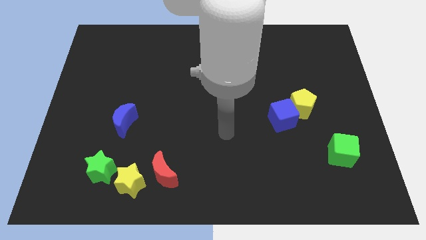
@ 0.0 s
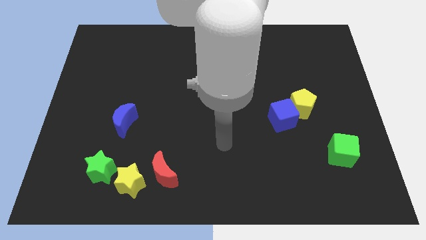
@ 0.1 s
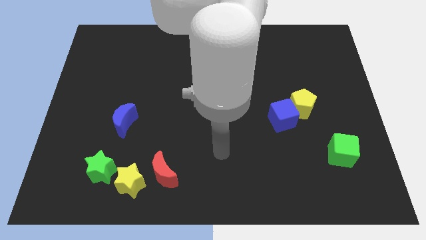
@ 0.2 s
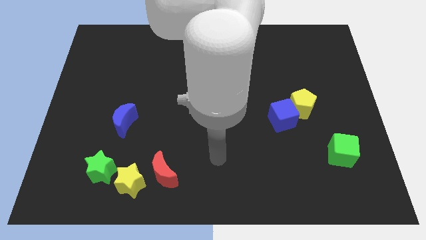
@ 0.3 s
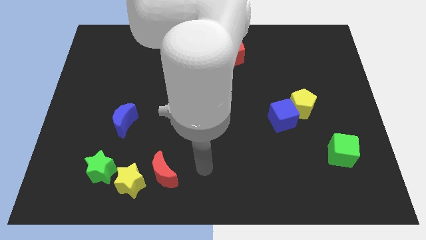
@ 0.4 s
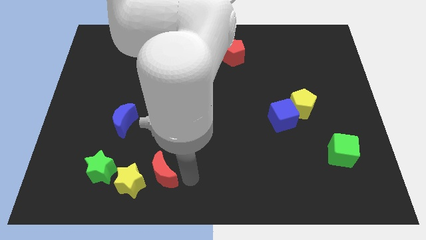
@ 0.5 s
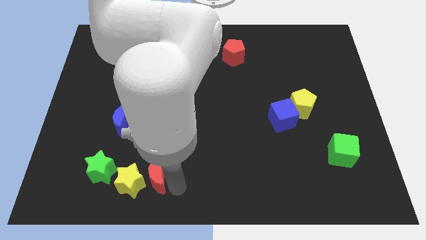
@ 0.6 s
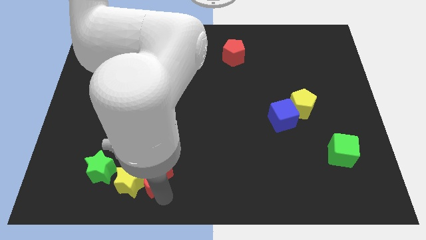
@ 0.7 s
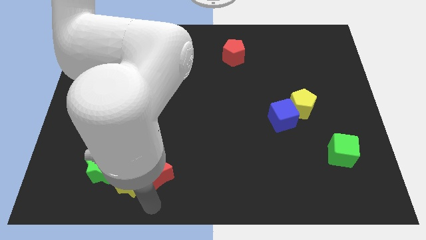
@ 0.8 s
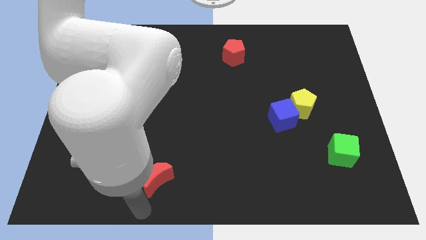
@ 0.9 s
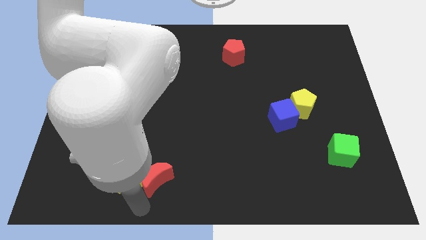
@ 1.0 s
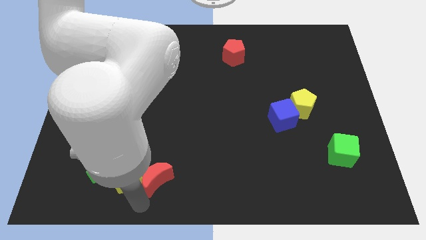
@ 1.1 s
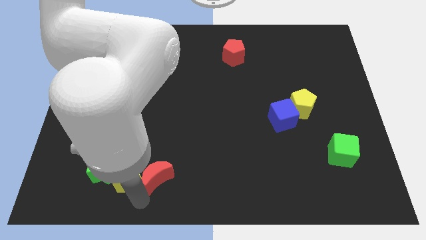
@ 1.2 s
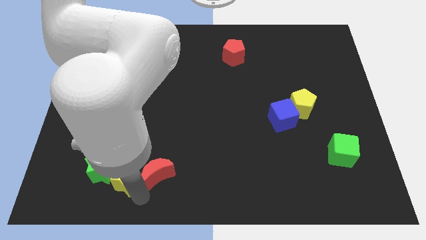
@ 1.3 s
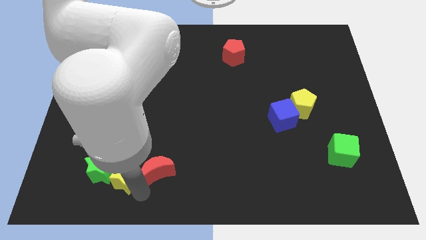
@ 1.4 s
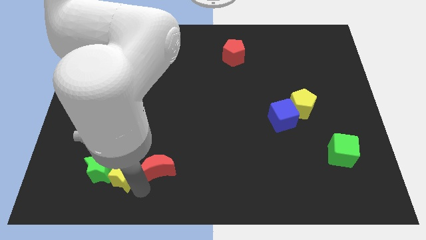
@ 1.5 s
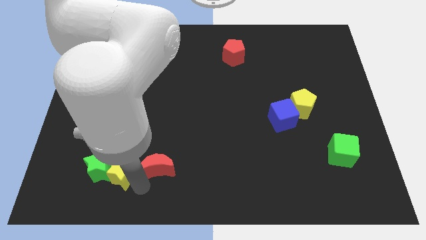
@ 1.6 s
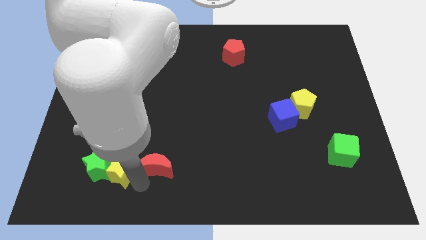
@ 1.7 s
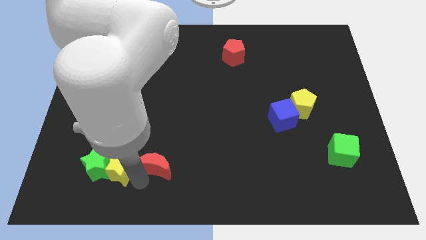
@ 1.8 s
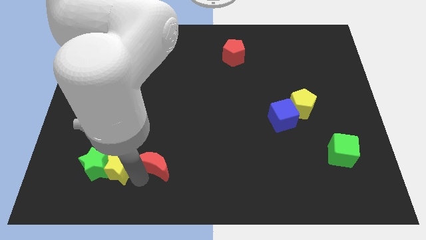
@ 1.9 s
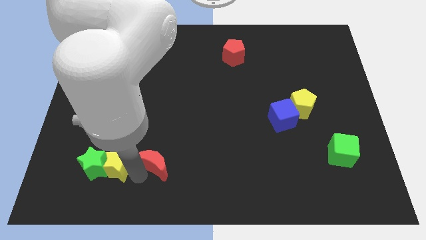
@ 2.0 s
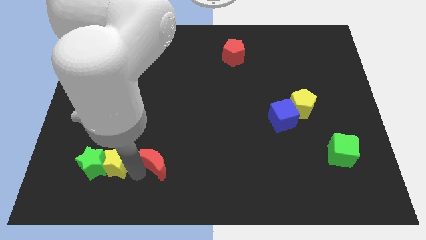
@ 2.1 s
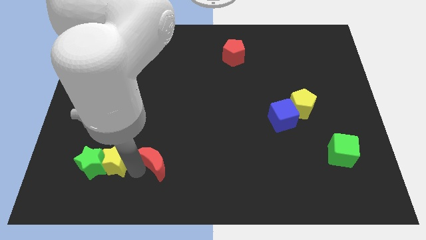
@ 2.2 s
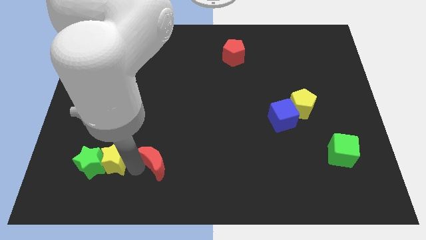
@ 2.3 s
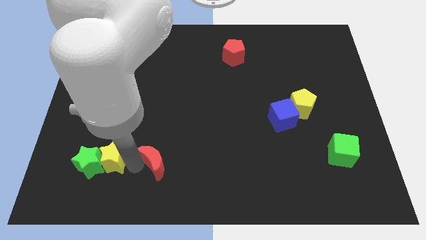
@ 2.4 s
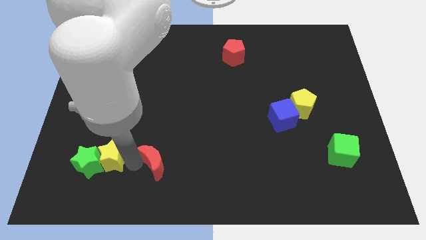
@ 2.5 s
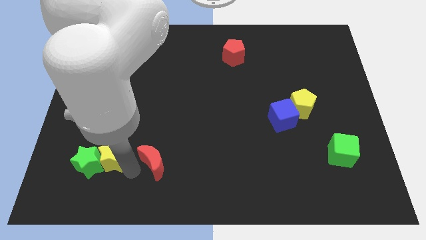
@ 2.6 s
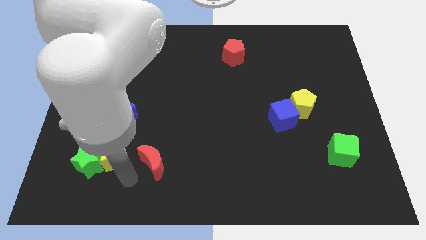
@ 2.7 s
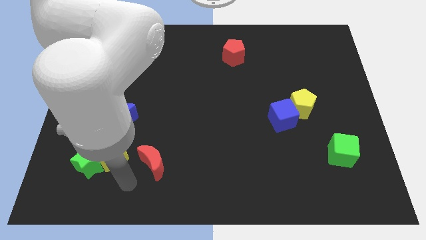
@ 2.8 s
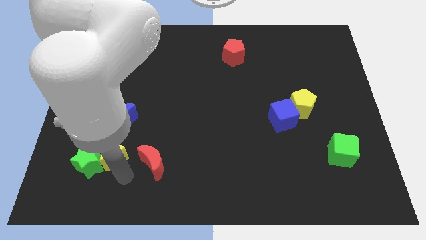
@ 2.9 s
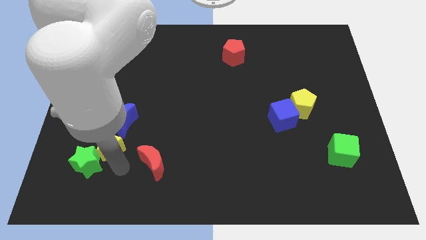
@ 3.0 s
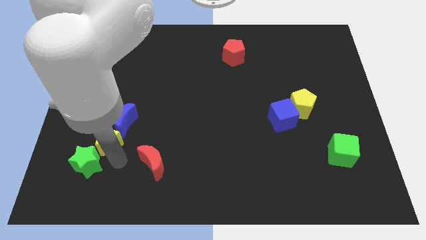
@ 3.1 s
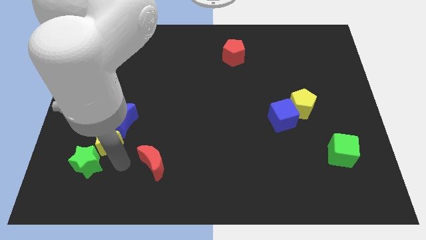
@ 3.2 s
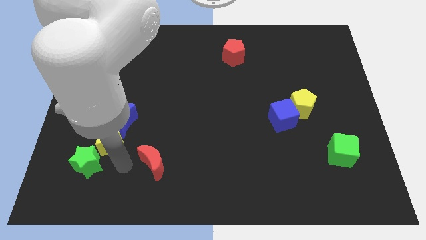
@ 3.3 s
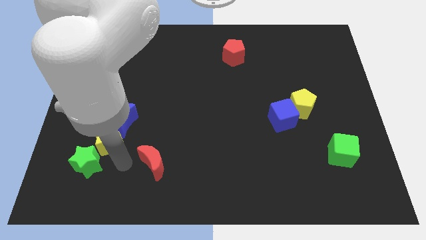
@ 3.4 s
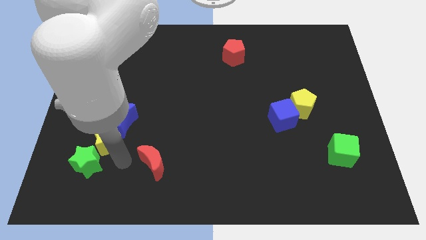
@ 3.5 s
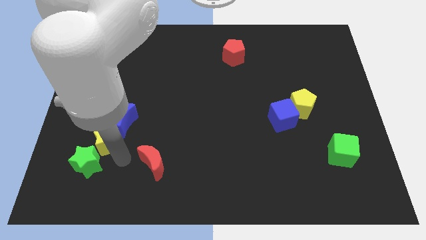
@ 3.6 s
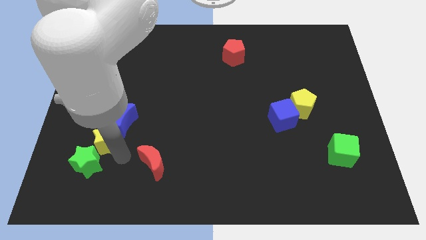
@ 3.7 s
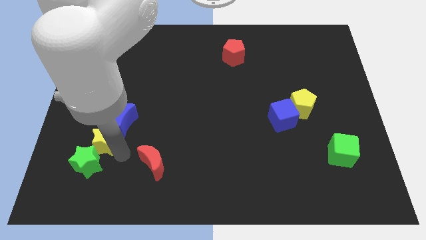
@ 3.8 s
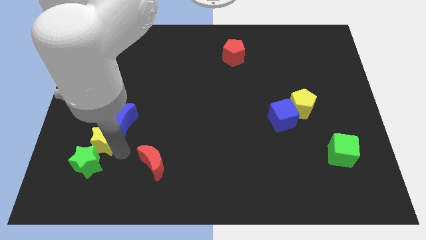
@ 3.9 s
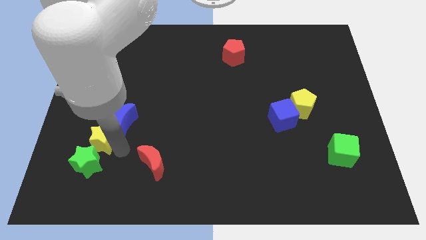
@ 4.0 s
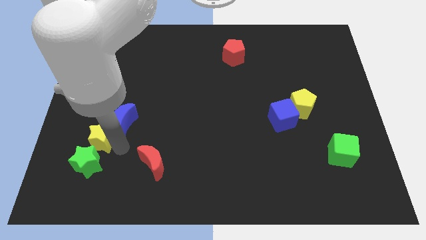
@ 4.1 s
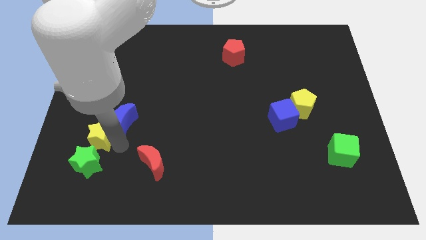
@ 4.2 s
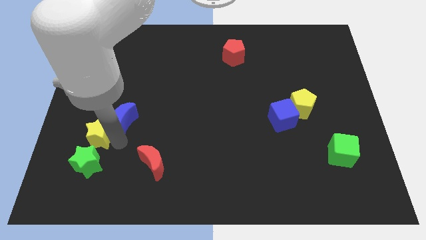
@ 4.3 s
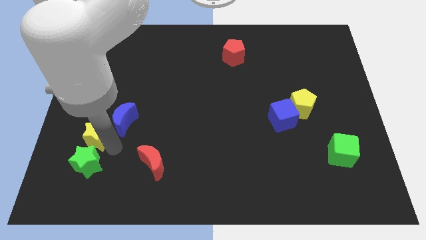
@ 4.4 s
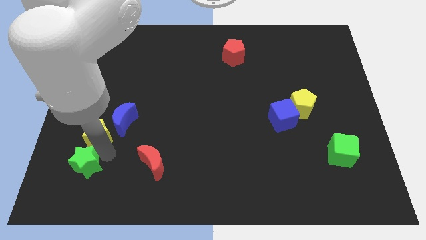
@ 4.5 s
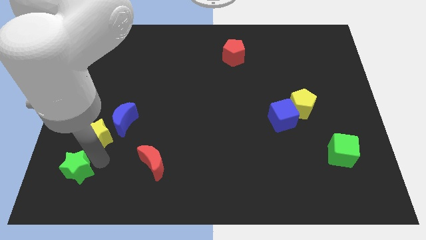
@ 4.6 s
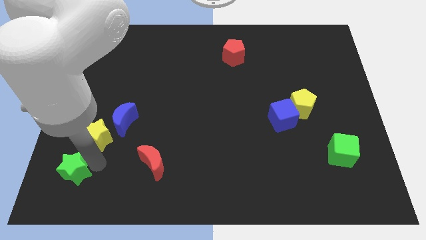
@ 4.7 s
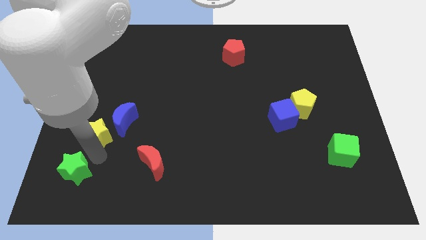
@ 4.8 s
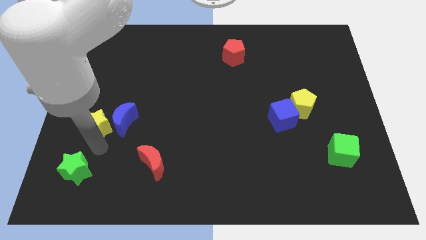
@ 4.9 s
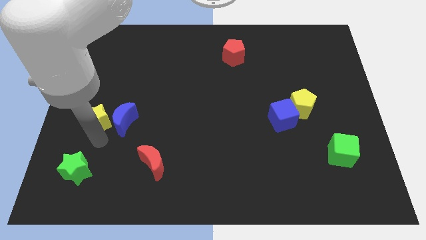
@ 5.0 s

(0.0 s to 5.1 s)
push the yellow star diagonally up and to the left of the blue moon

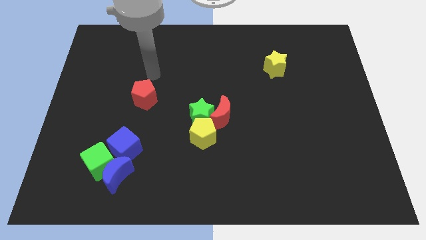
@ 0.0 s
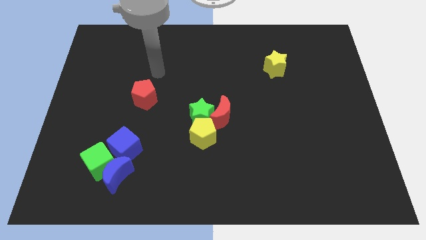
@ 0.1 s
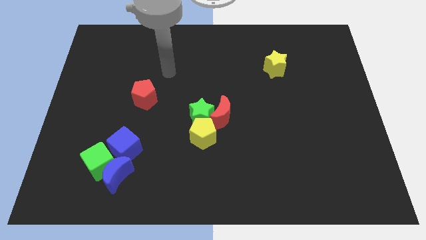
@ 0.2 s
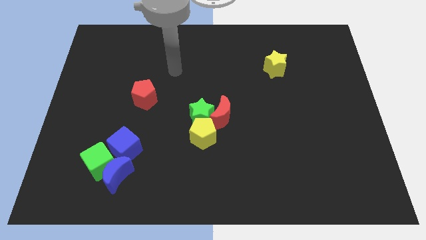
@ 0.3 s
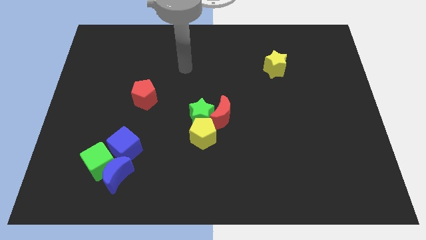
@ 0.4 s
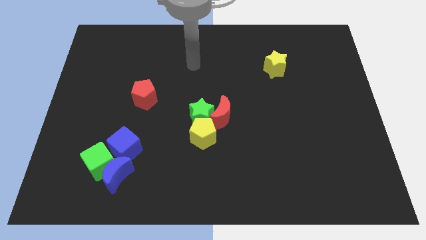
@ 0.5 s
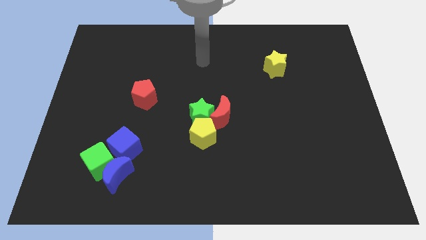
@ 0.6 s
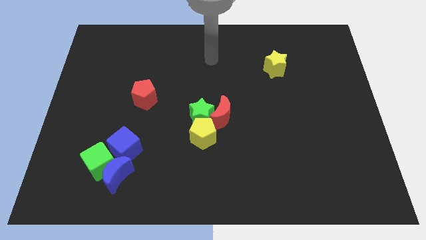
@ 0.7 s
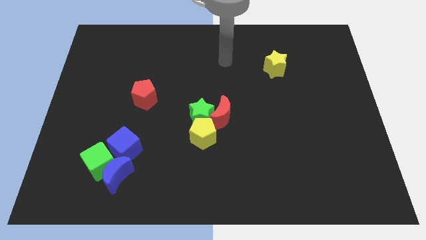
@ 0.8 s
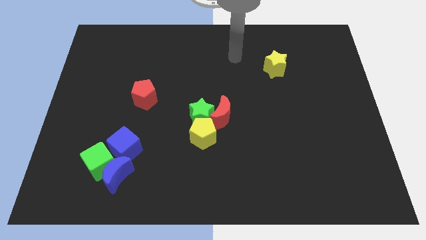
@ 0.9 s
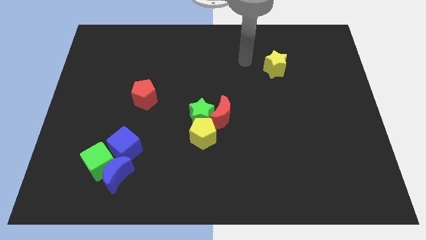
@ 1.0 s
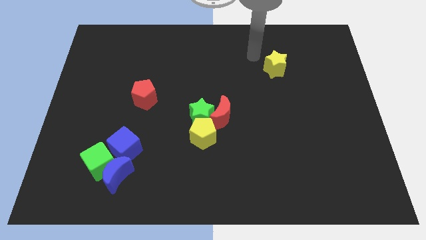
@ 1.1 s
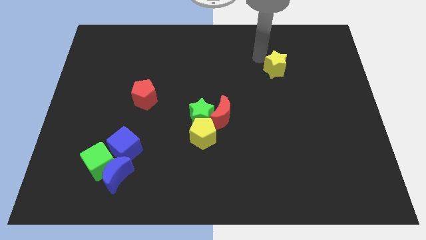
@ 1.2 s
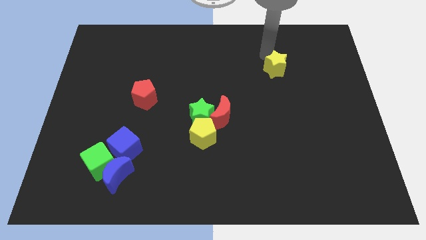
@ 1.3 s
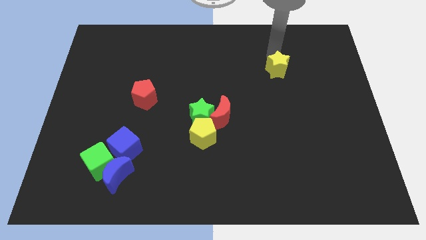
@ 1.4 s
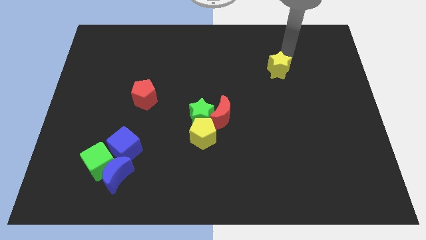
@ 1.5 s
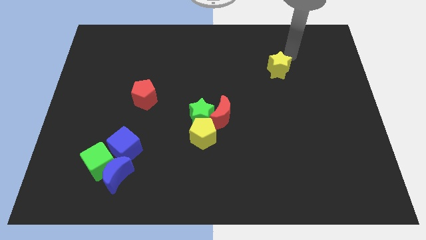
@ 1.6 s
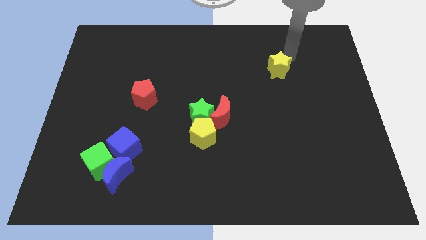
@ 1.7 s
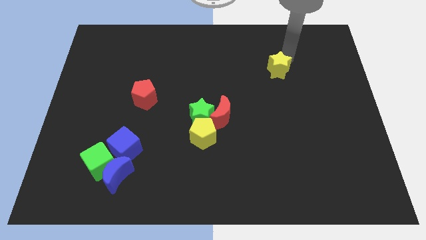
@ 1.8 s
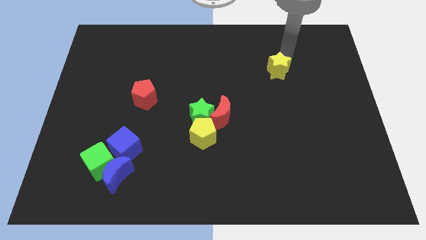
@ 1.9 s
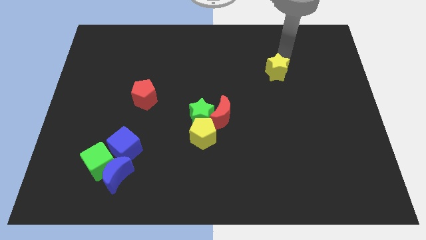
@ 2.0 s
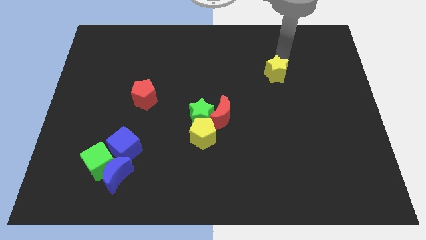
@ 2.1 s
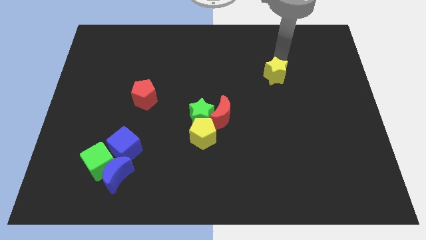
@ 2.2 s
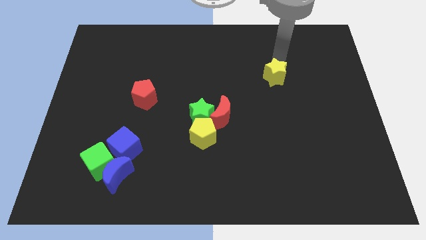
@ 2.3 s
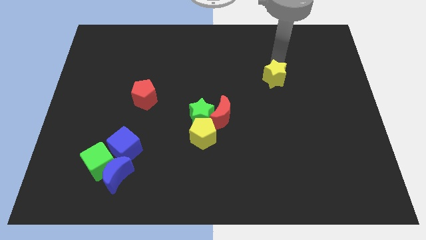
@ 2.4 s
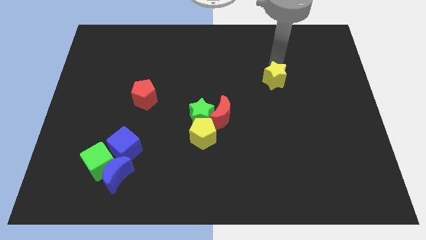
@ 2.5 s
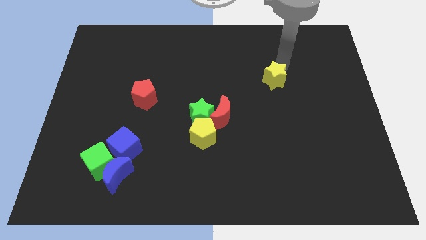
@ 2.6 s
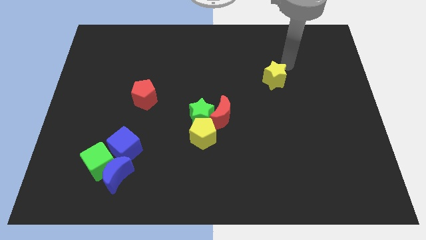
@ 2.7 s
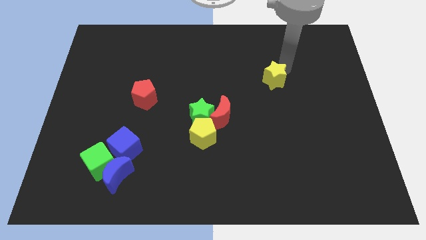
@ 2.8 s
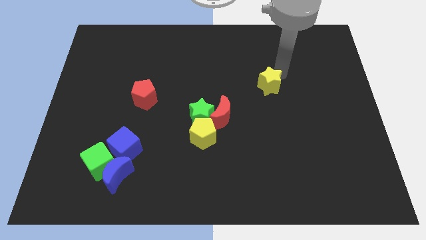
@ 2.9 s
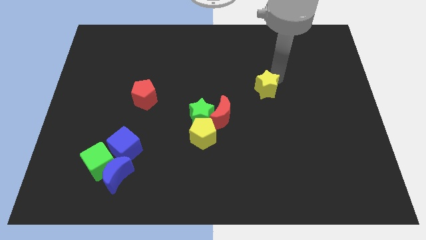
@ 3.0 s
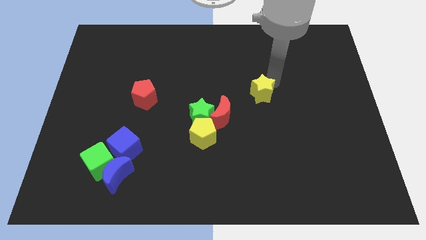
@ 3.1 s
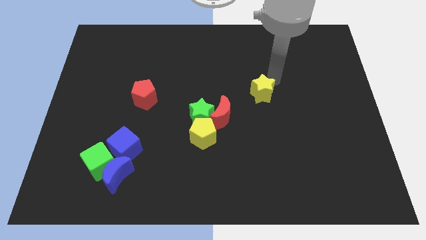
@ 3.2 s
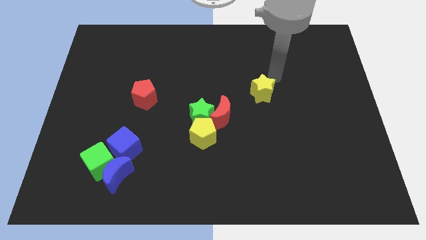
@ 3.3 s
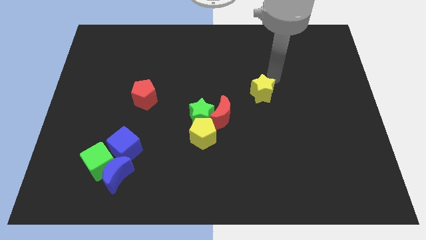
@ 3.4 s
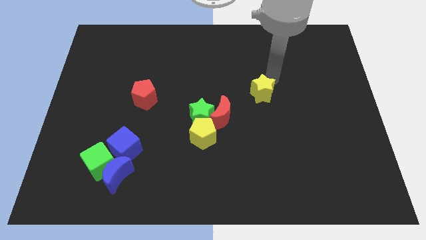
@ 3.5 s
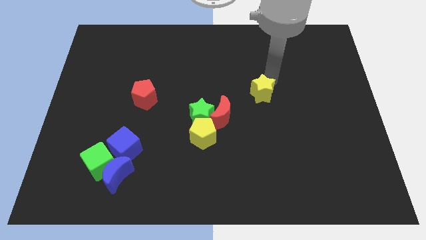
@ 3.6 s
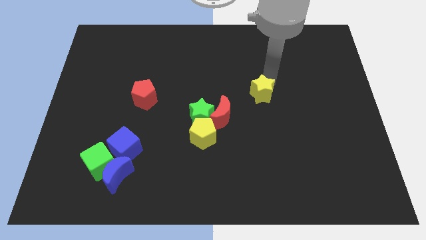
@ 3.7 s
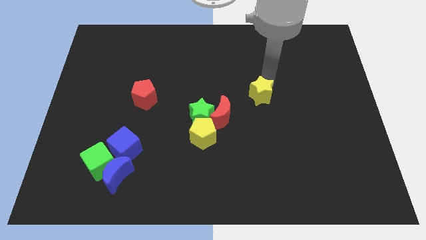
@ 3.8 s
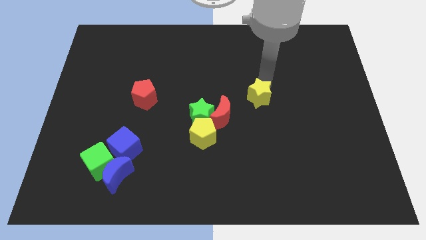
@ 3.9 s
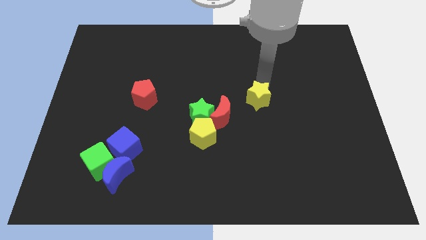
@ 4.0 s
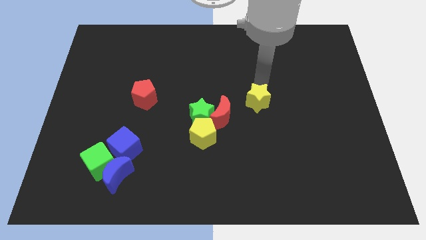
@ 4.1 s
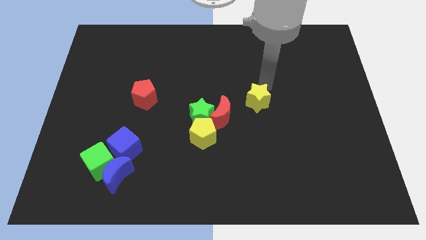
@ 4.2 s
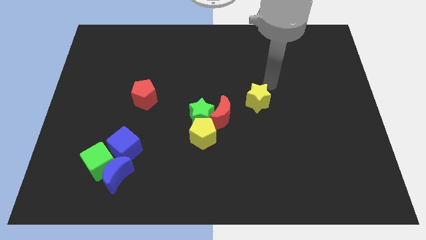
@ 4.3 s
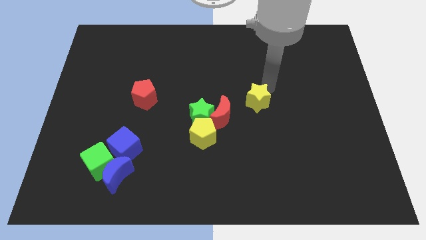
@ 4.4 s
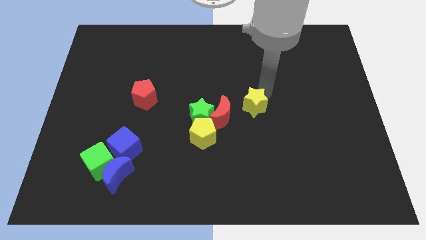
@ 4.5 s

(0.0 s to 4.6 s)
push the yellow star right of the green star
